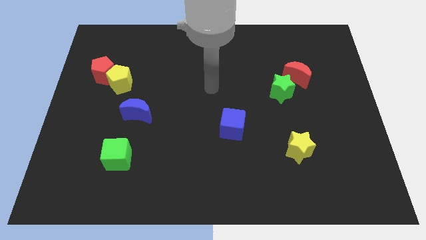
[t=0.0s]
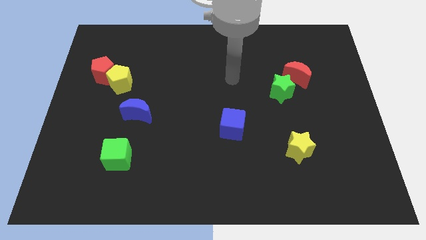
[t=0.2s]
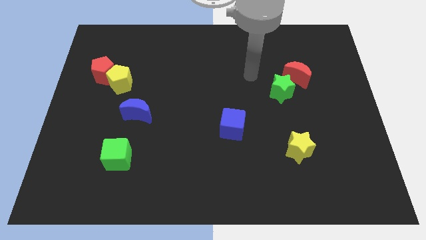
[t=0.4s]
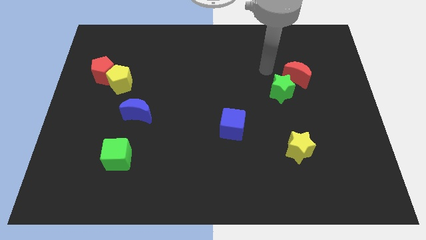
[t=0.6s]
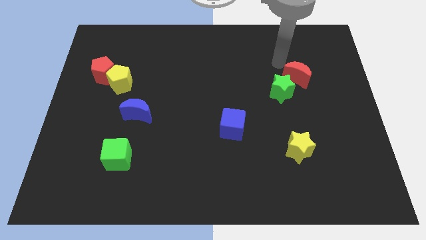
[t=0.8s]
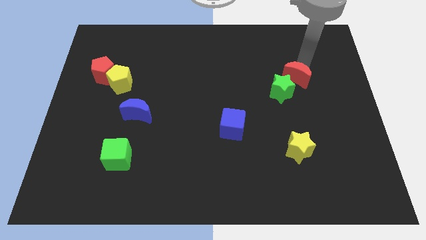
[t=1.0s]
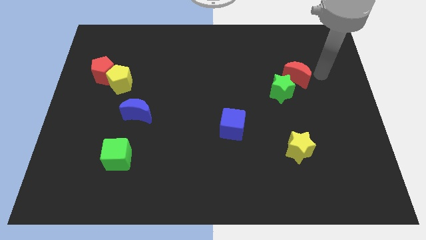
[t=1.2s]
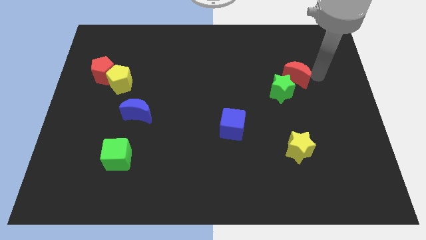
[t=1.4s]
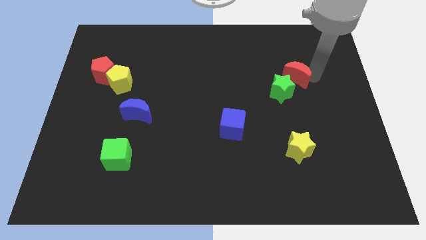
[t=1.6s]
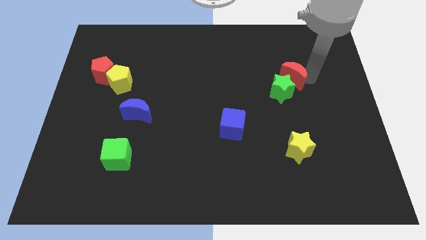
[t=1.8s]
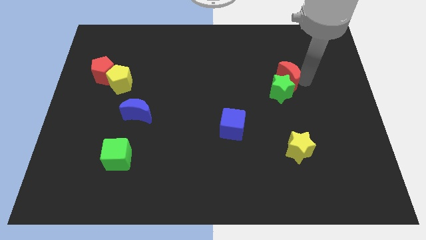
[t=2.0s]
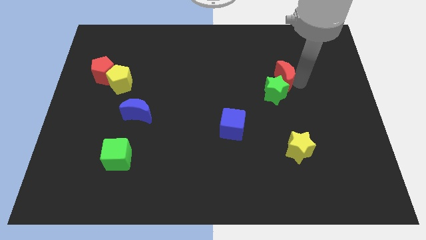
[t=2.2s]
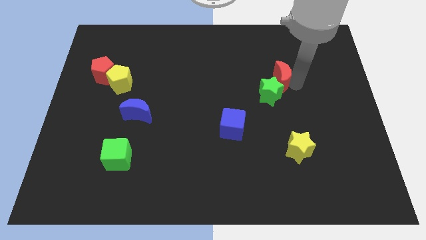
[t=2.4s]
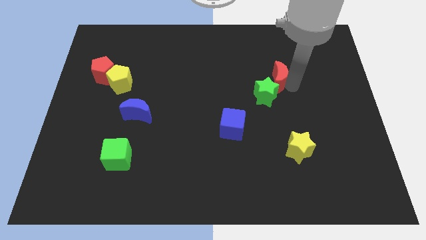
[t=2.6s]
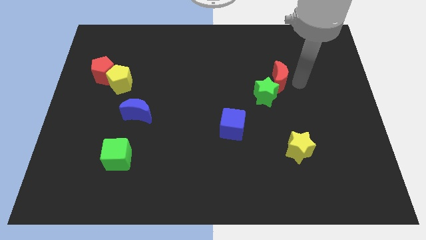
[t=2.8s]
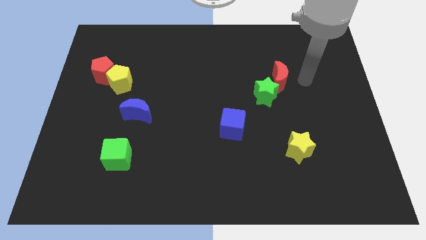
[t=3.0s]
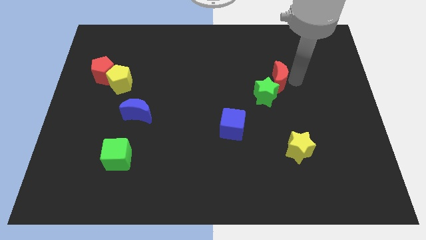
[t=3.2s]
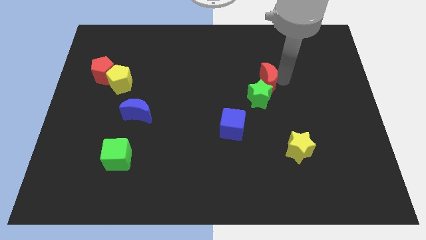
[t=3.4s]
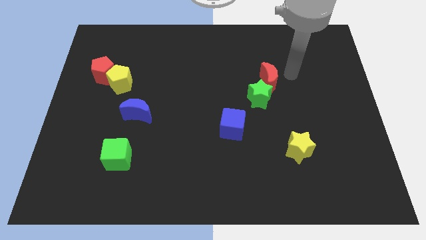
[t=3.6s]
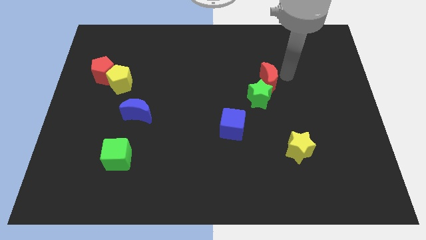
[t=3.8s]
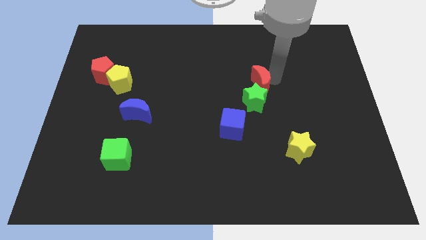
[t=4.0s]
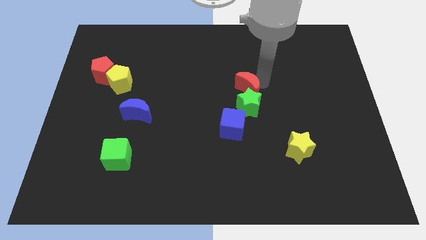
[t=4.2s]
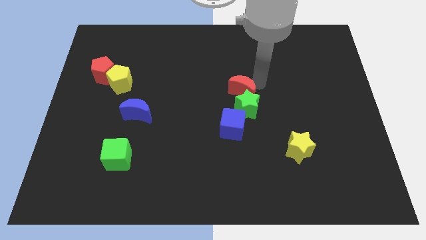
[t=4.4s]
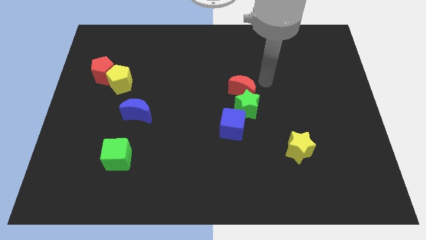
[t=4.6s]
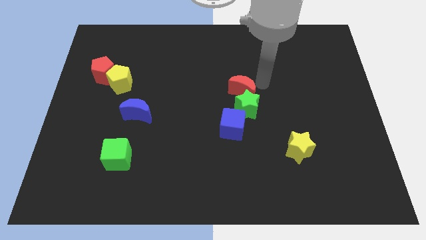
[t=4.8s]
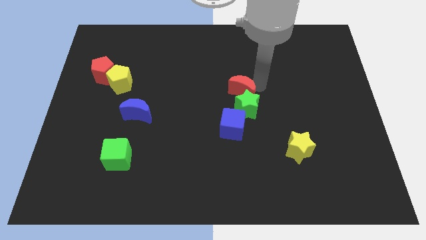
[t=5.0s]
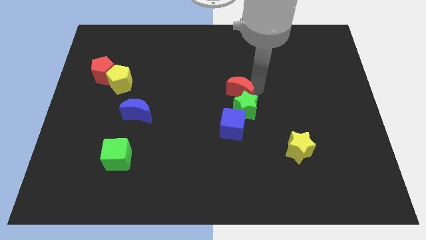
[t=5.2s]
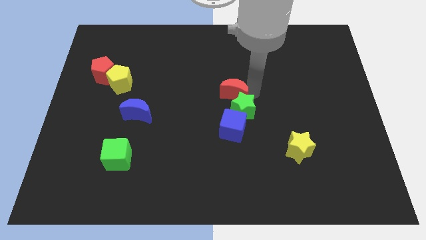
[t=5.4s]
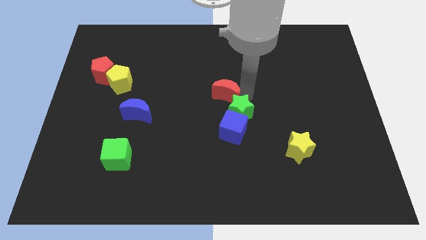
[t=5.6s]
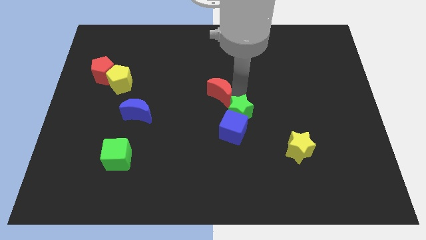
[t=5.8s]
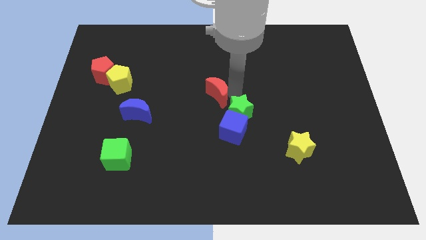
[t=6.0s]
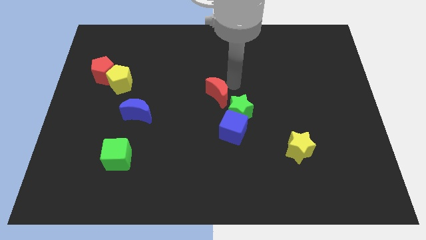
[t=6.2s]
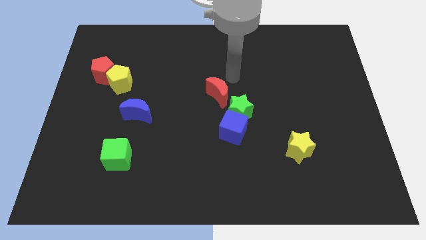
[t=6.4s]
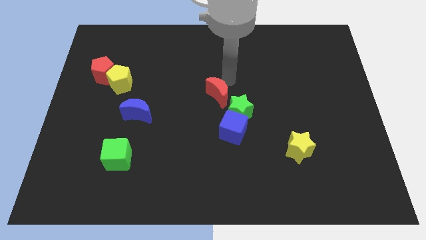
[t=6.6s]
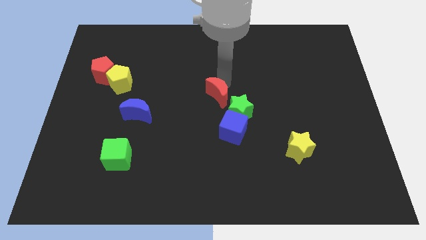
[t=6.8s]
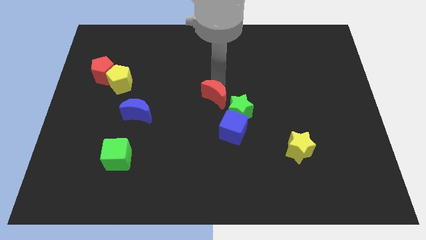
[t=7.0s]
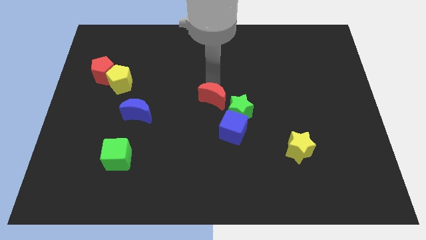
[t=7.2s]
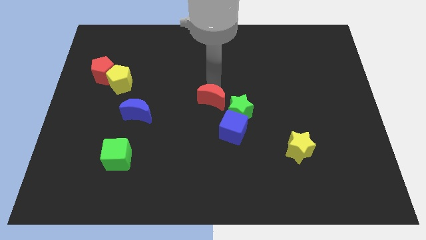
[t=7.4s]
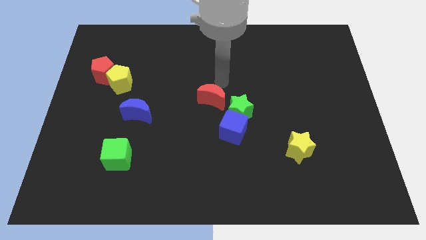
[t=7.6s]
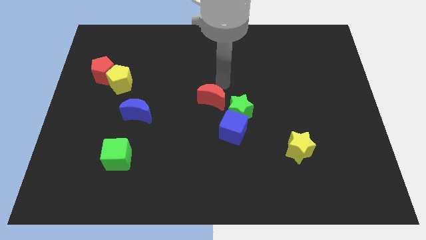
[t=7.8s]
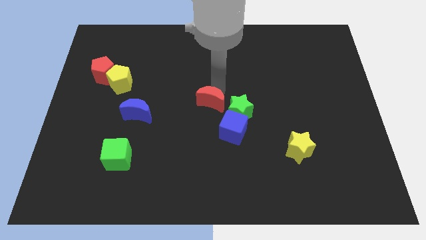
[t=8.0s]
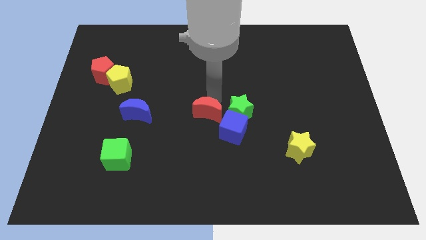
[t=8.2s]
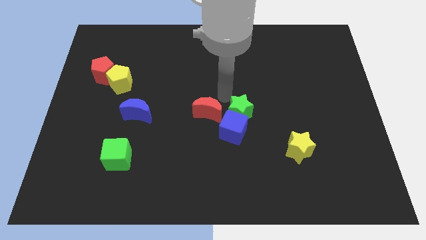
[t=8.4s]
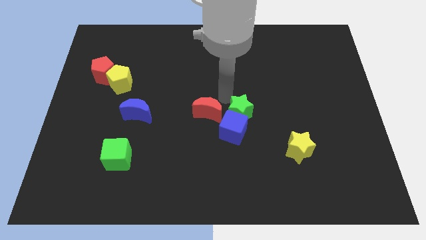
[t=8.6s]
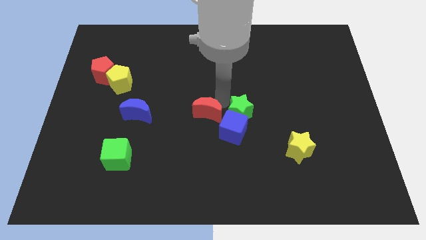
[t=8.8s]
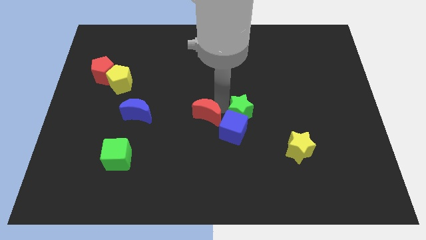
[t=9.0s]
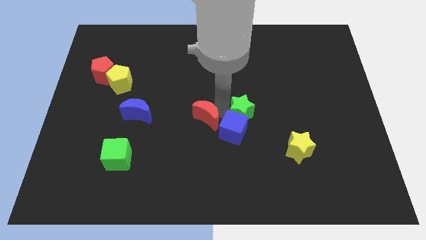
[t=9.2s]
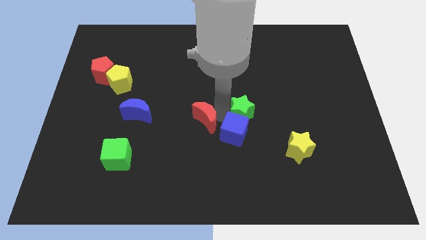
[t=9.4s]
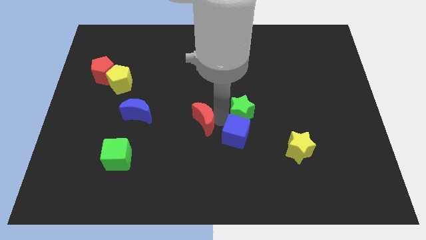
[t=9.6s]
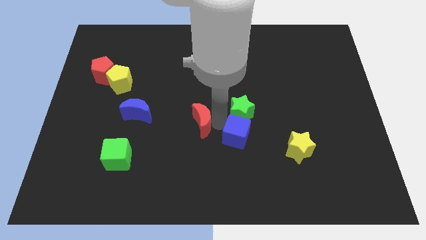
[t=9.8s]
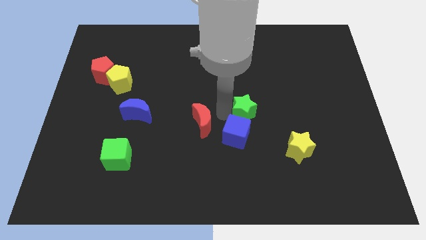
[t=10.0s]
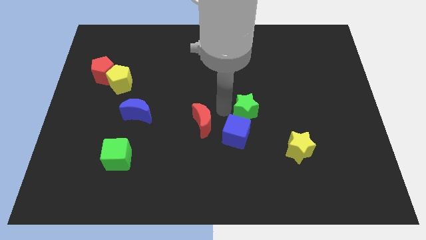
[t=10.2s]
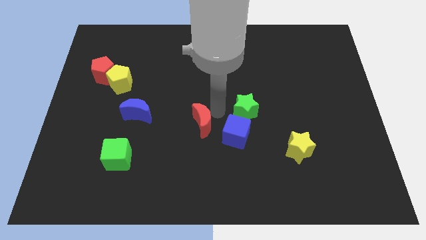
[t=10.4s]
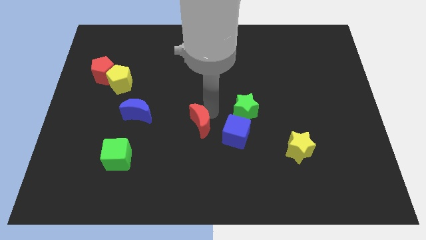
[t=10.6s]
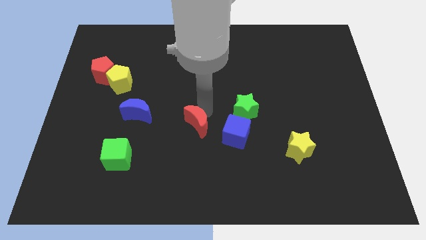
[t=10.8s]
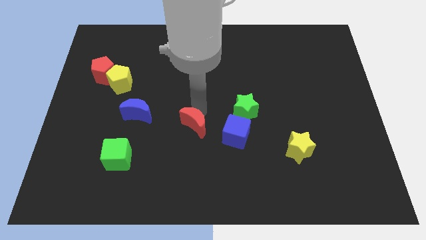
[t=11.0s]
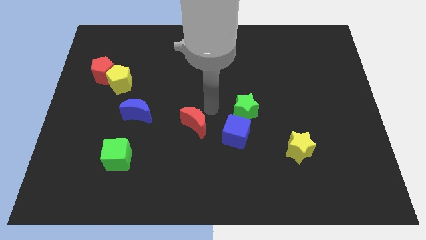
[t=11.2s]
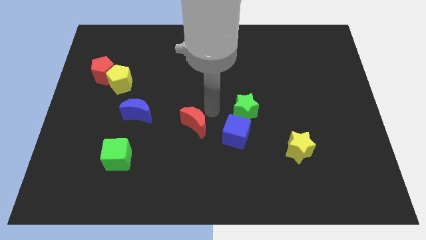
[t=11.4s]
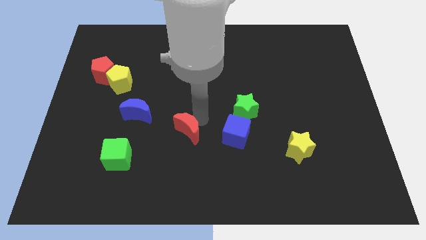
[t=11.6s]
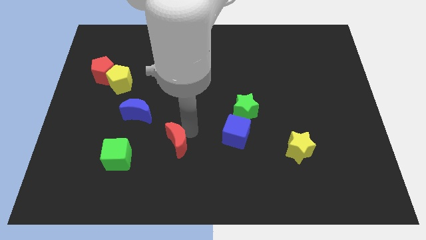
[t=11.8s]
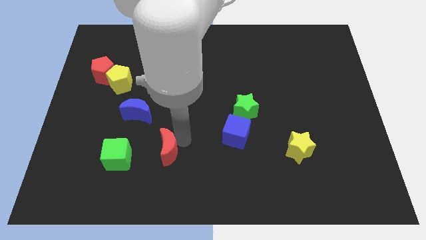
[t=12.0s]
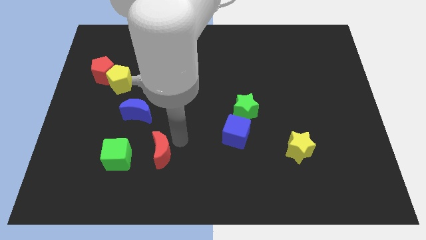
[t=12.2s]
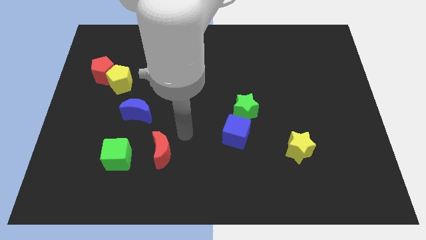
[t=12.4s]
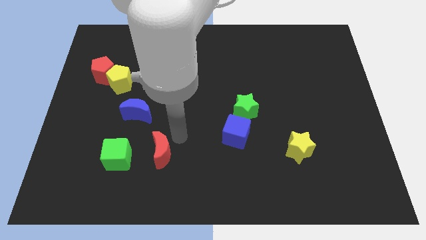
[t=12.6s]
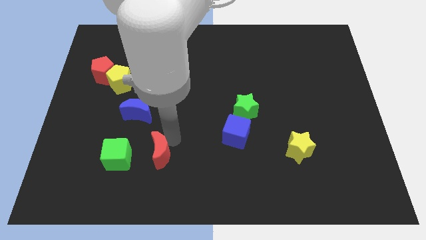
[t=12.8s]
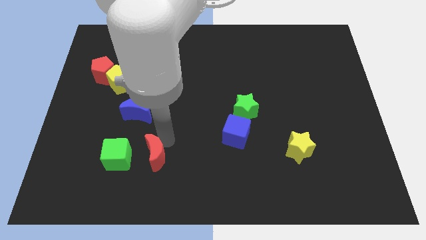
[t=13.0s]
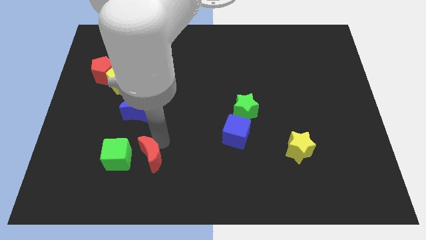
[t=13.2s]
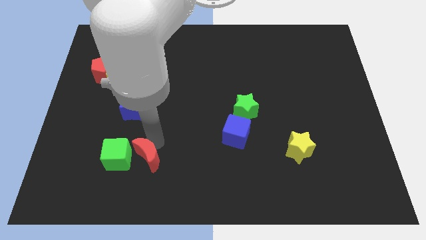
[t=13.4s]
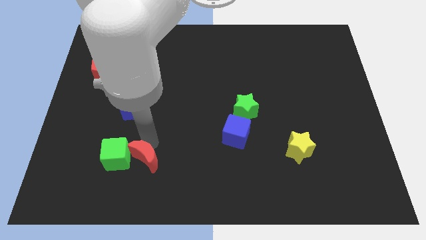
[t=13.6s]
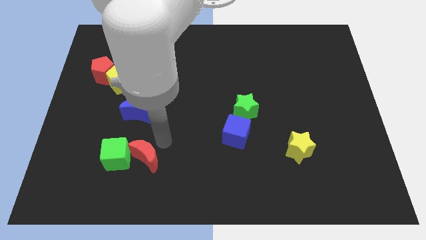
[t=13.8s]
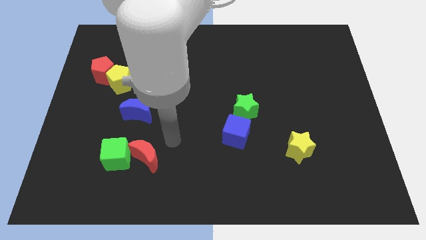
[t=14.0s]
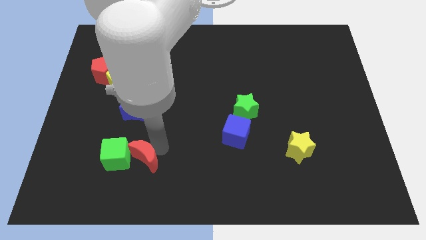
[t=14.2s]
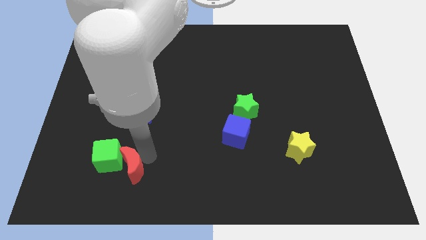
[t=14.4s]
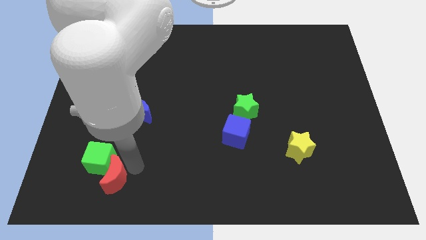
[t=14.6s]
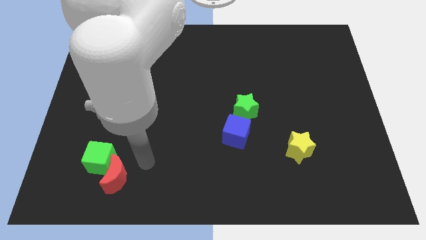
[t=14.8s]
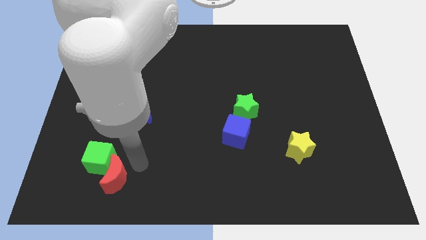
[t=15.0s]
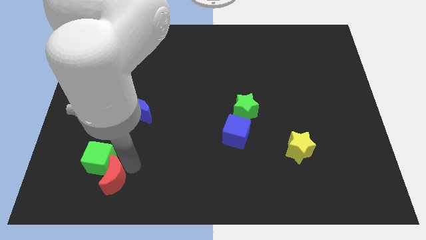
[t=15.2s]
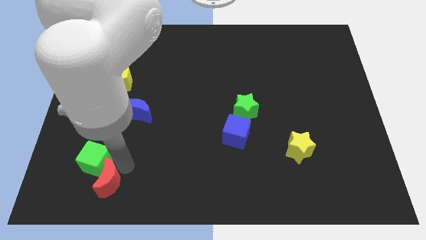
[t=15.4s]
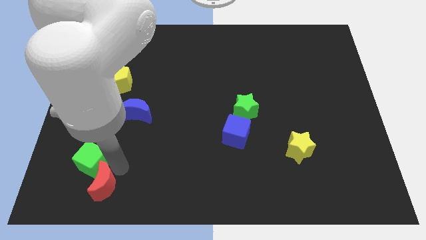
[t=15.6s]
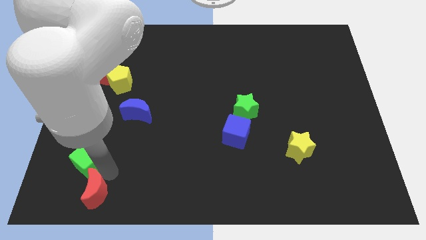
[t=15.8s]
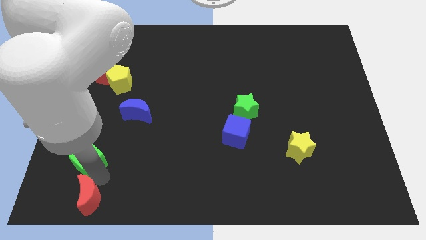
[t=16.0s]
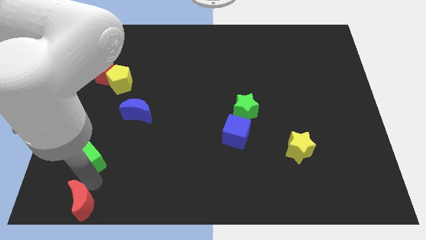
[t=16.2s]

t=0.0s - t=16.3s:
slide the red moon to the bottom left corner
